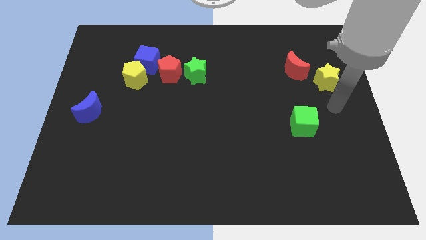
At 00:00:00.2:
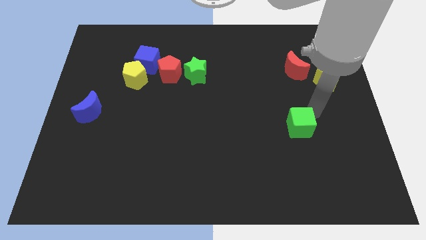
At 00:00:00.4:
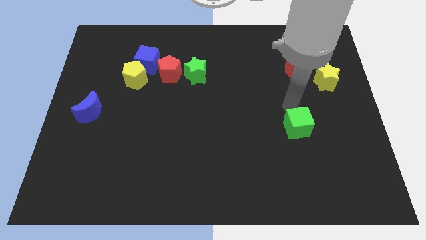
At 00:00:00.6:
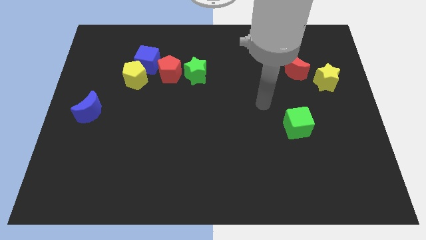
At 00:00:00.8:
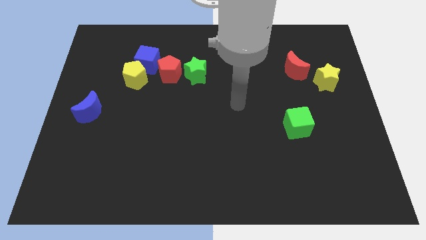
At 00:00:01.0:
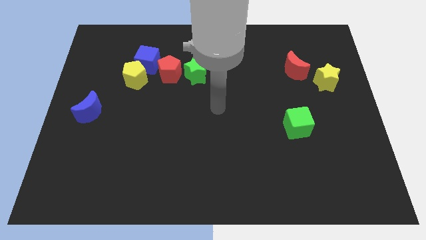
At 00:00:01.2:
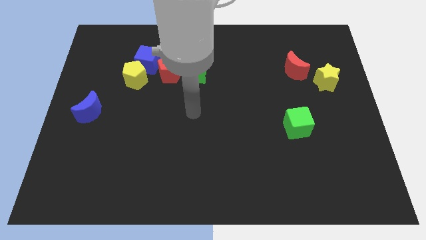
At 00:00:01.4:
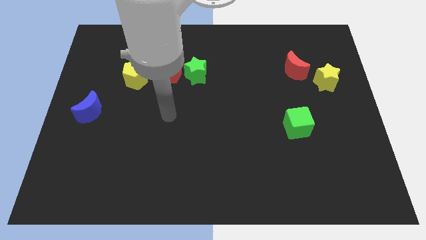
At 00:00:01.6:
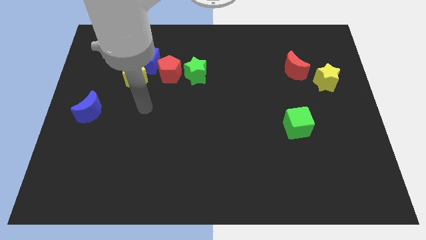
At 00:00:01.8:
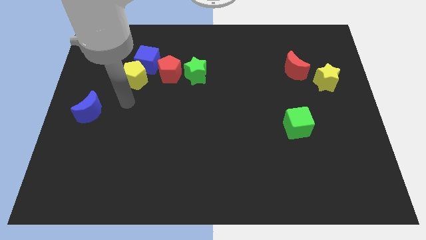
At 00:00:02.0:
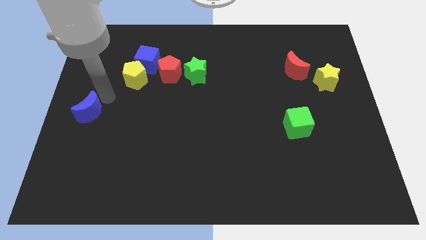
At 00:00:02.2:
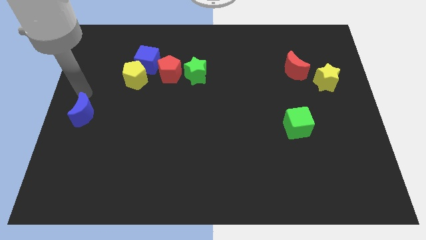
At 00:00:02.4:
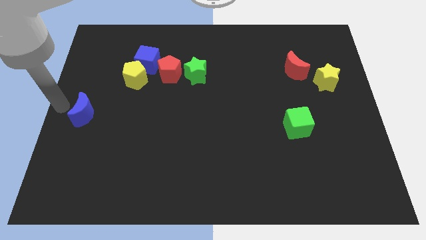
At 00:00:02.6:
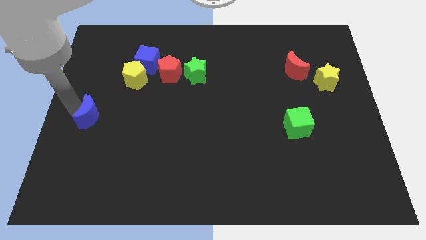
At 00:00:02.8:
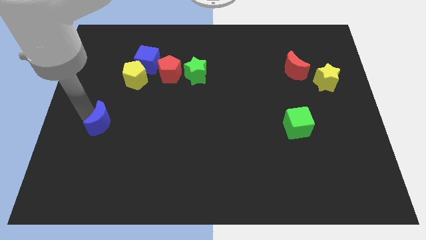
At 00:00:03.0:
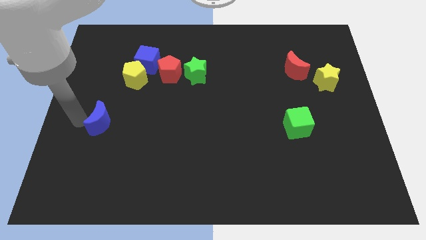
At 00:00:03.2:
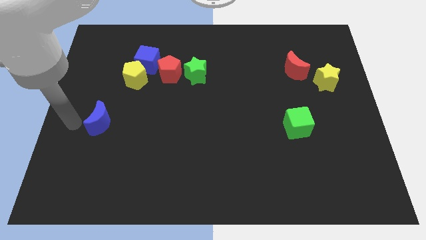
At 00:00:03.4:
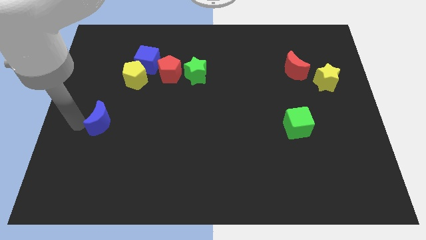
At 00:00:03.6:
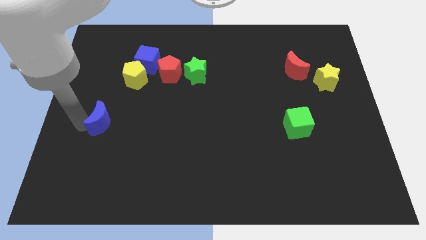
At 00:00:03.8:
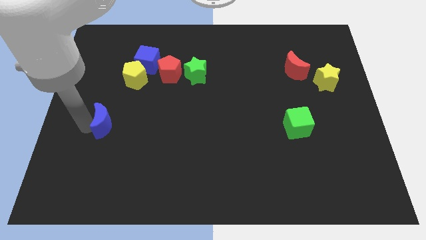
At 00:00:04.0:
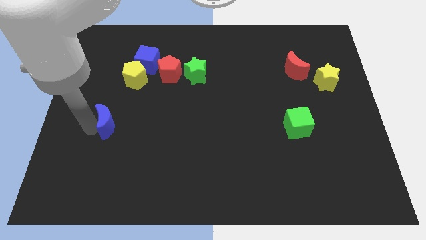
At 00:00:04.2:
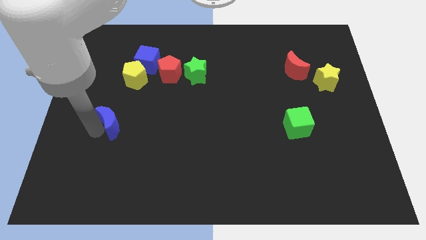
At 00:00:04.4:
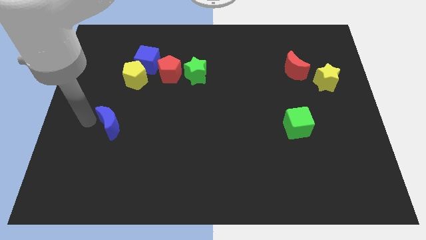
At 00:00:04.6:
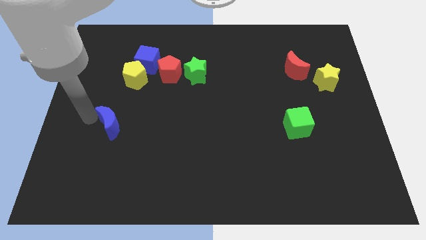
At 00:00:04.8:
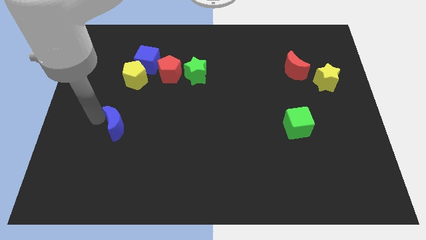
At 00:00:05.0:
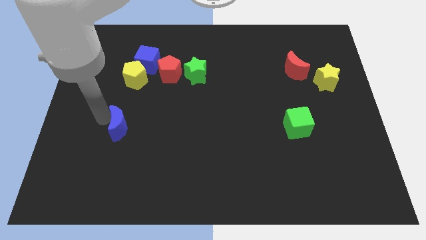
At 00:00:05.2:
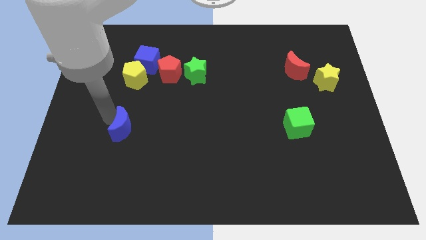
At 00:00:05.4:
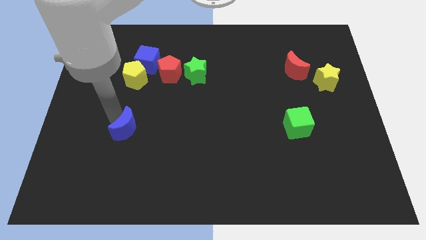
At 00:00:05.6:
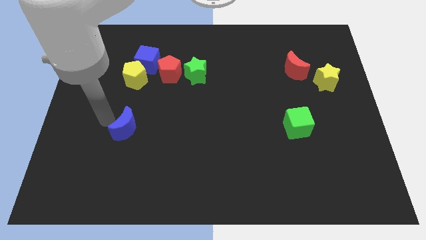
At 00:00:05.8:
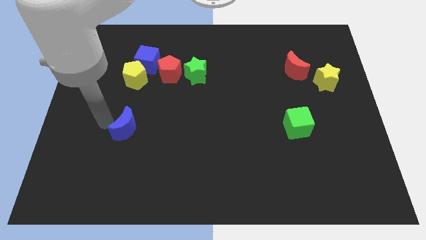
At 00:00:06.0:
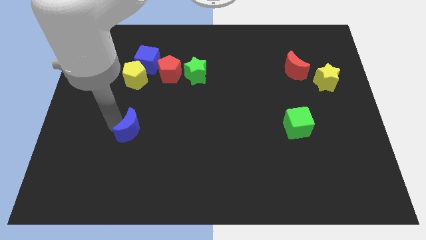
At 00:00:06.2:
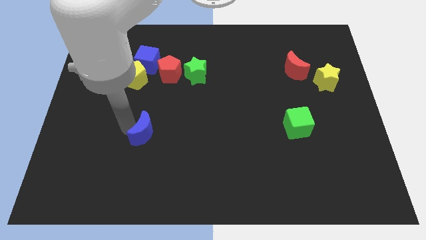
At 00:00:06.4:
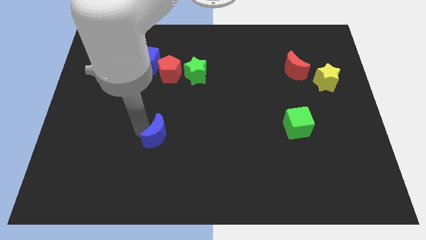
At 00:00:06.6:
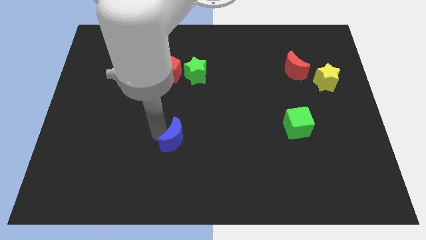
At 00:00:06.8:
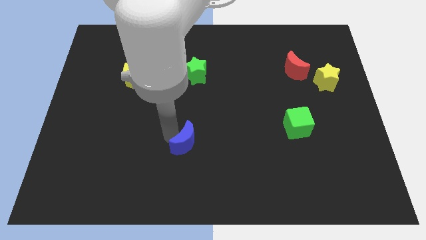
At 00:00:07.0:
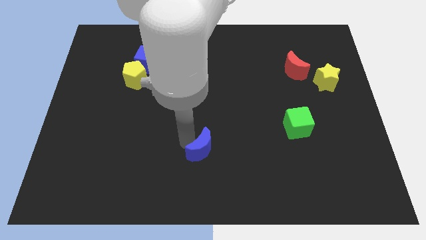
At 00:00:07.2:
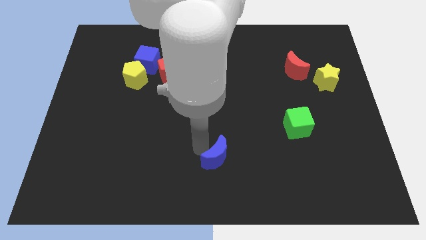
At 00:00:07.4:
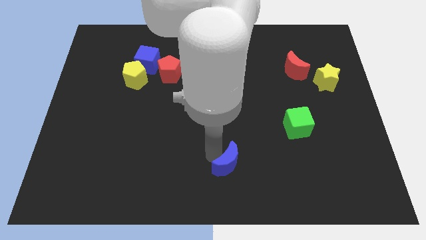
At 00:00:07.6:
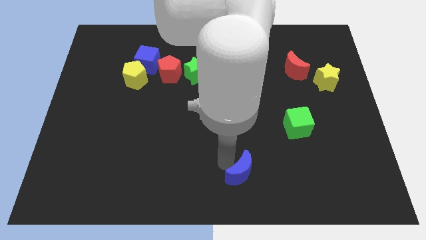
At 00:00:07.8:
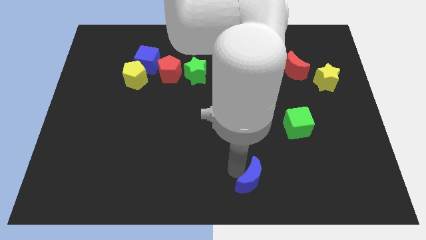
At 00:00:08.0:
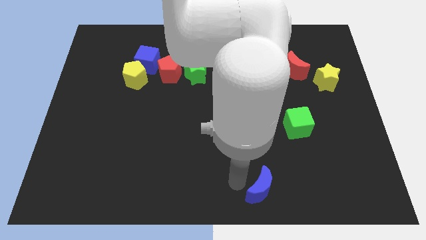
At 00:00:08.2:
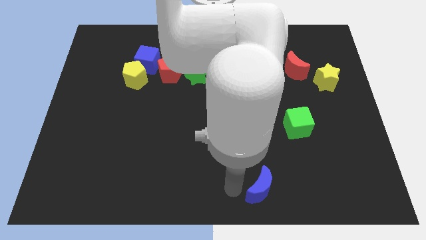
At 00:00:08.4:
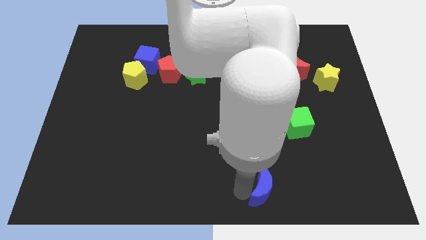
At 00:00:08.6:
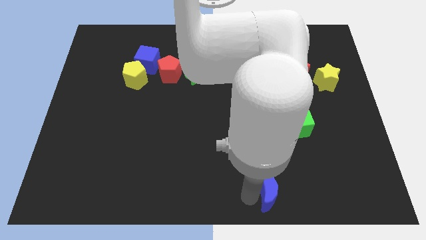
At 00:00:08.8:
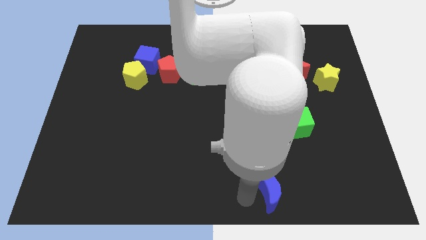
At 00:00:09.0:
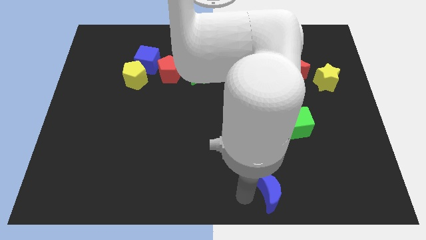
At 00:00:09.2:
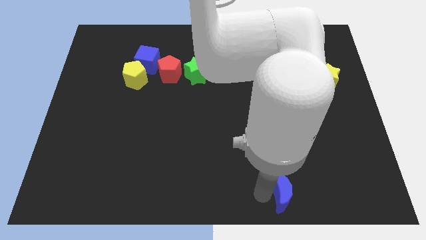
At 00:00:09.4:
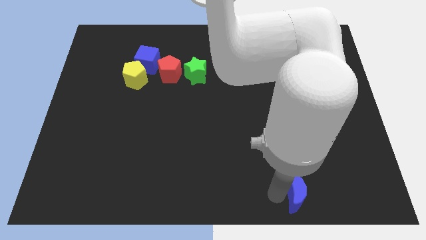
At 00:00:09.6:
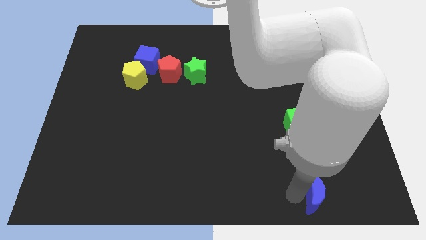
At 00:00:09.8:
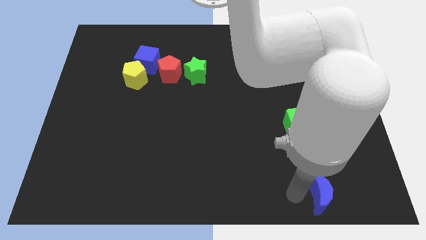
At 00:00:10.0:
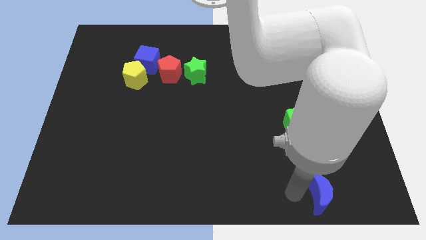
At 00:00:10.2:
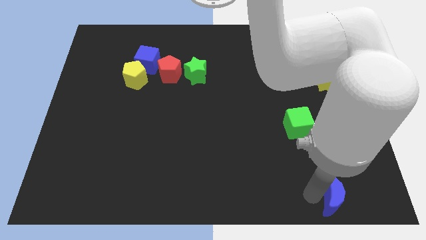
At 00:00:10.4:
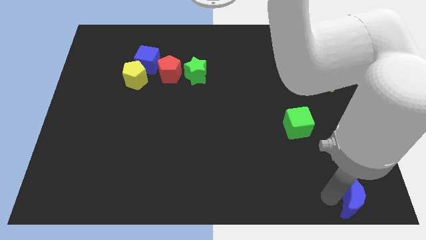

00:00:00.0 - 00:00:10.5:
push the blue moon to the lower right corner
